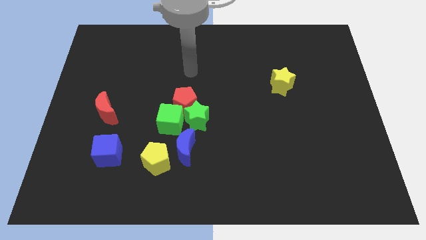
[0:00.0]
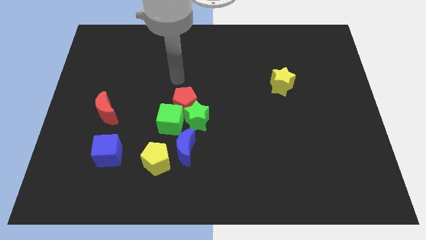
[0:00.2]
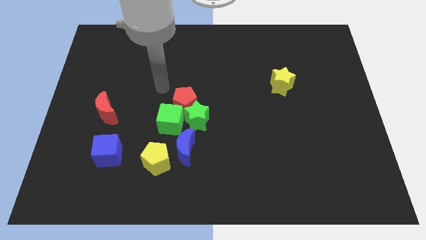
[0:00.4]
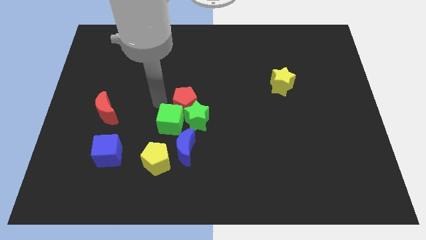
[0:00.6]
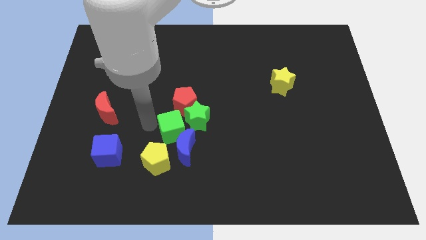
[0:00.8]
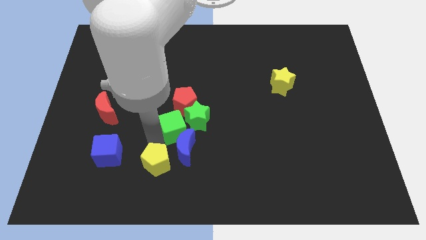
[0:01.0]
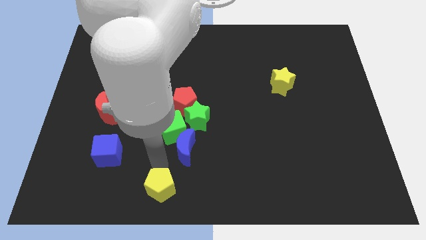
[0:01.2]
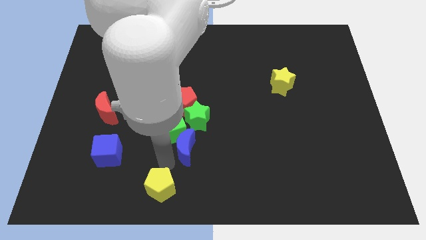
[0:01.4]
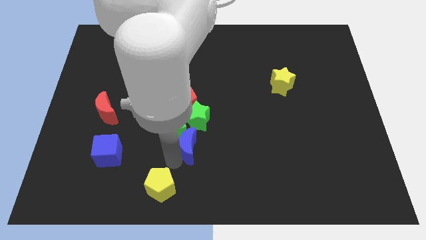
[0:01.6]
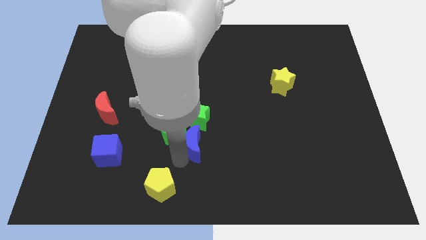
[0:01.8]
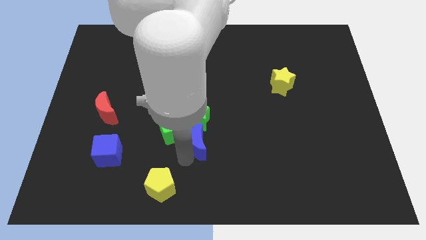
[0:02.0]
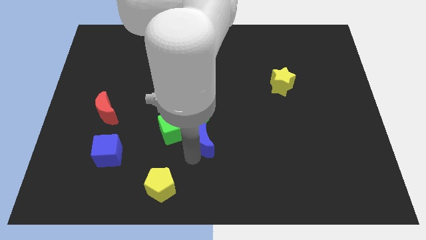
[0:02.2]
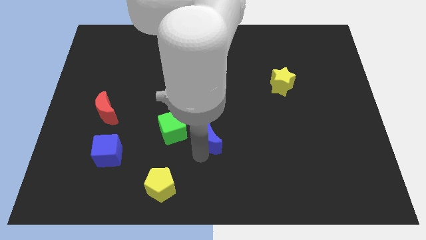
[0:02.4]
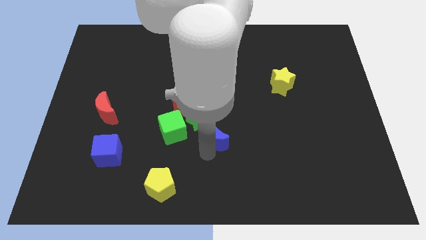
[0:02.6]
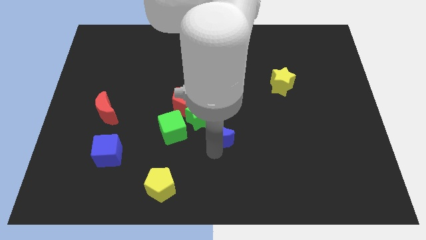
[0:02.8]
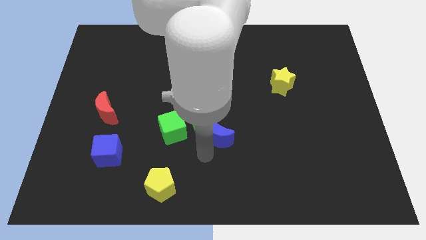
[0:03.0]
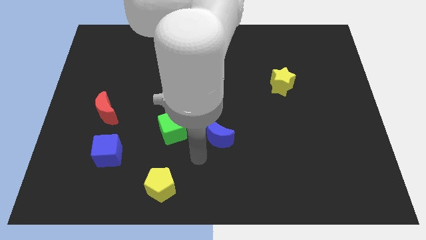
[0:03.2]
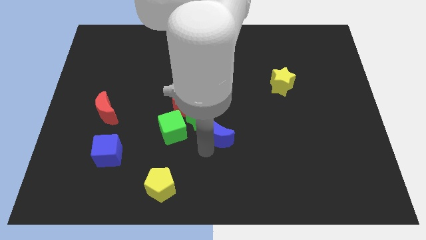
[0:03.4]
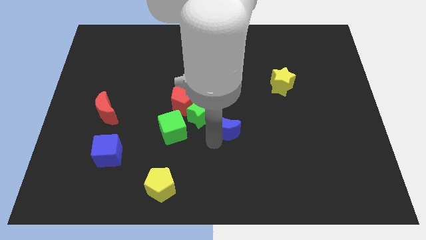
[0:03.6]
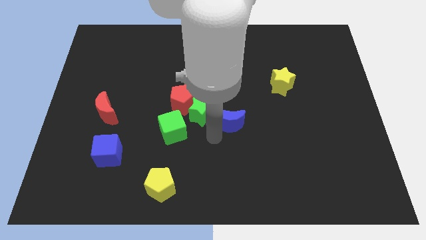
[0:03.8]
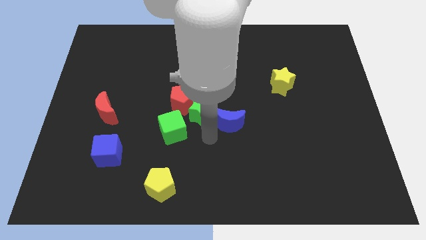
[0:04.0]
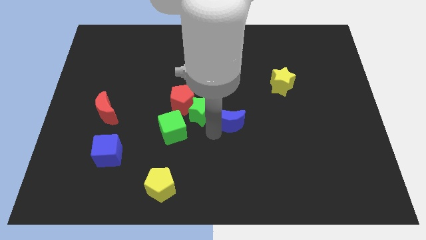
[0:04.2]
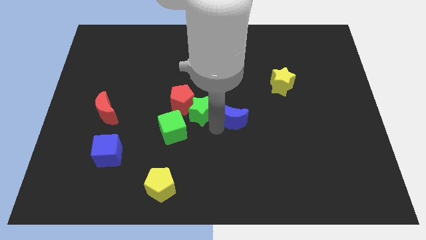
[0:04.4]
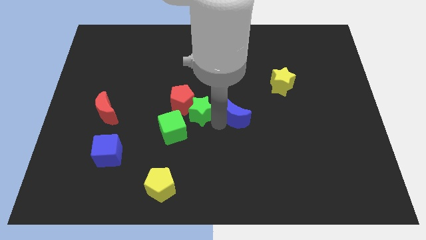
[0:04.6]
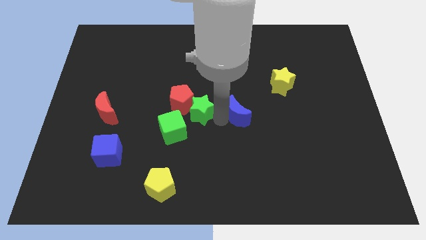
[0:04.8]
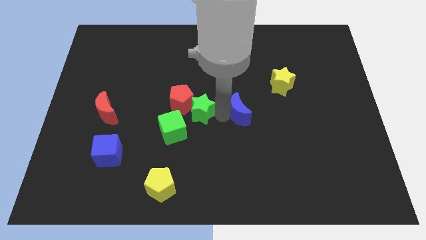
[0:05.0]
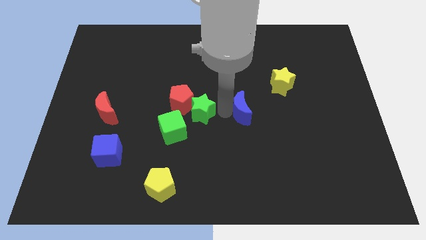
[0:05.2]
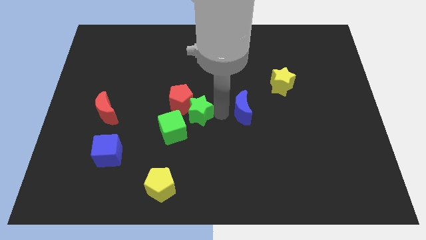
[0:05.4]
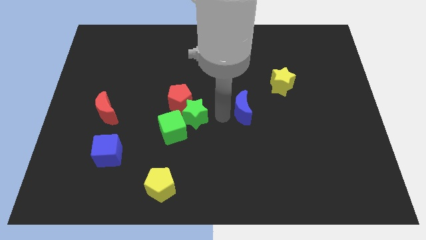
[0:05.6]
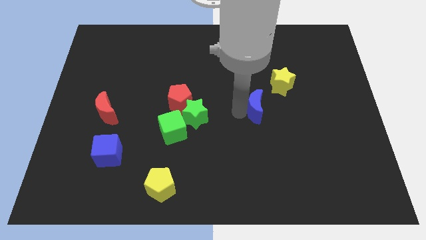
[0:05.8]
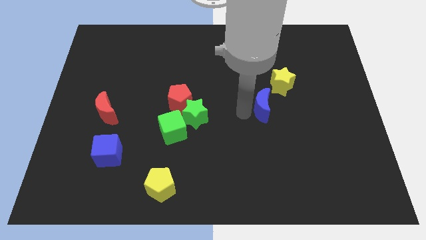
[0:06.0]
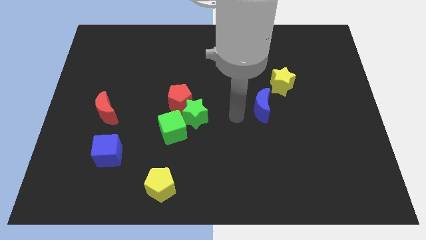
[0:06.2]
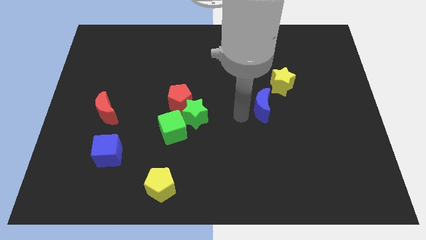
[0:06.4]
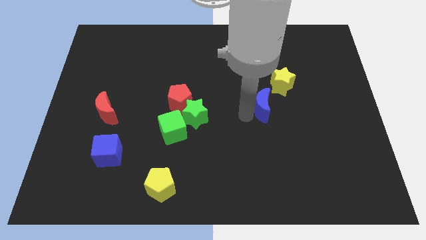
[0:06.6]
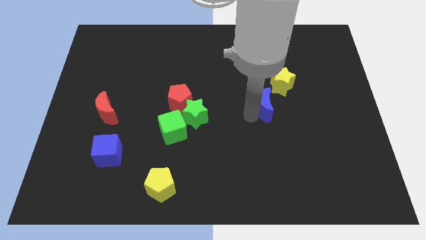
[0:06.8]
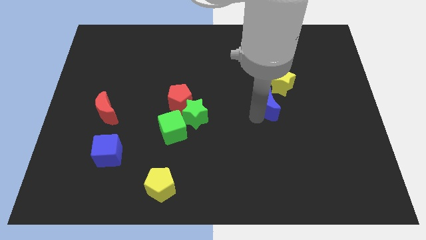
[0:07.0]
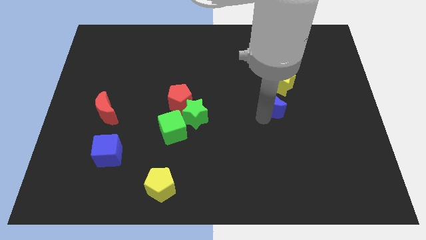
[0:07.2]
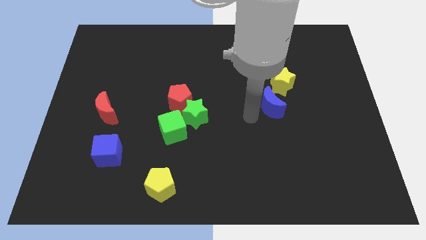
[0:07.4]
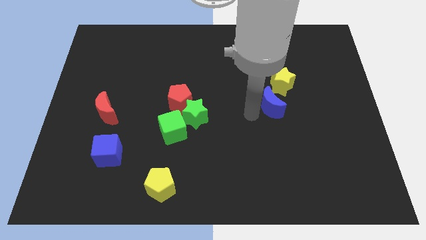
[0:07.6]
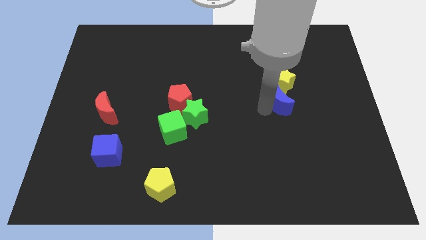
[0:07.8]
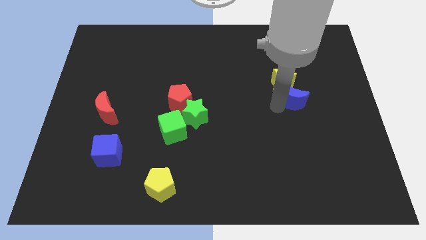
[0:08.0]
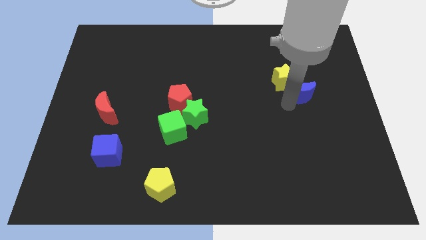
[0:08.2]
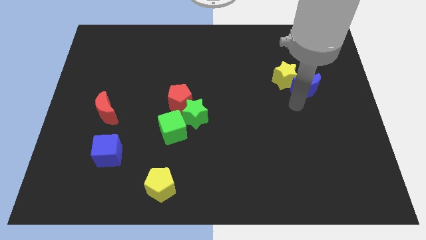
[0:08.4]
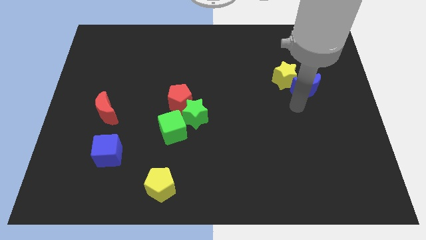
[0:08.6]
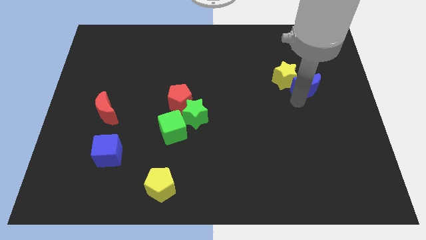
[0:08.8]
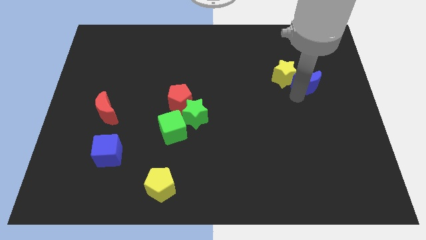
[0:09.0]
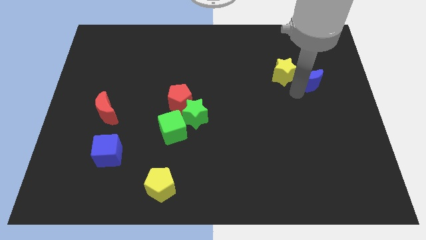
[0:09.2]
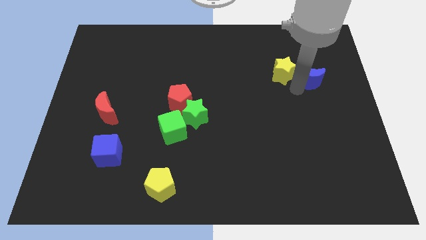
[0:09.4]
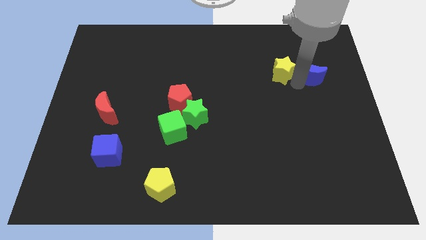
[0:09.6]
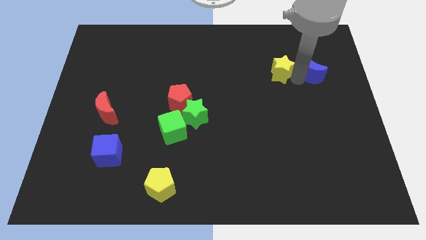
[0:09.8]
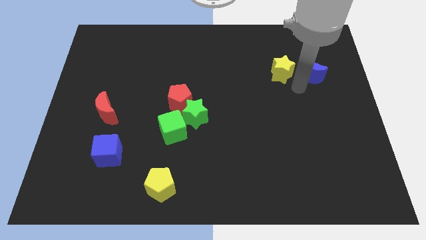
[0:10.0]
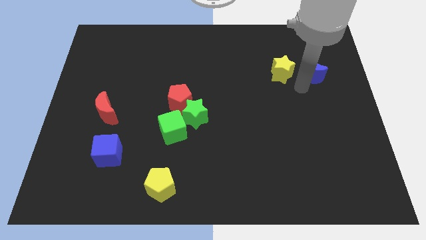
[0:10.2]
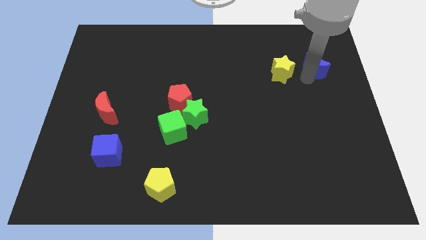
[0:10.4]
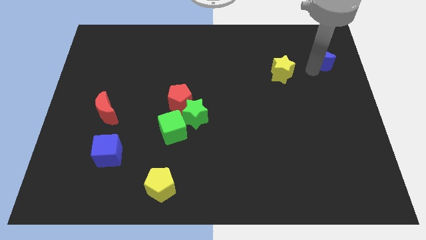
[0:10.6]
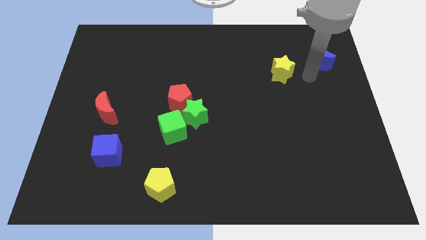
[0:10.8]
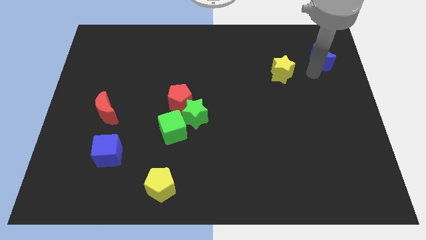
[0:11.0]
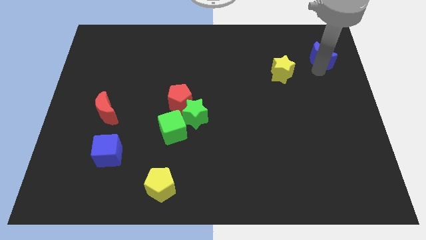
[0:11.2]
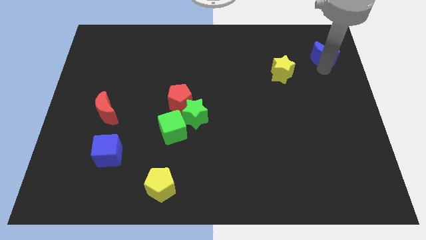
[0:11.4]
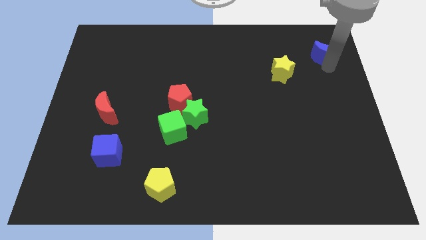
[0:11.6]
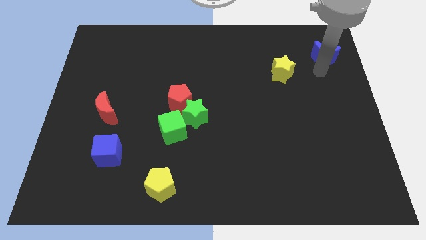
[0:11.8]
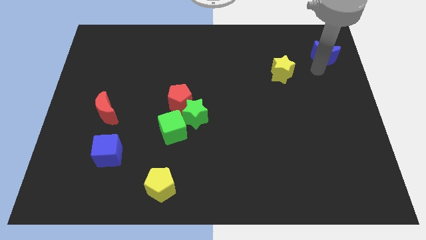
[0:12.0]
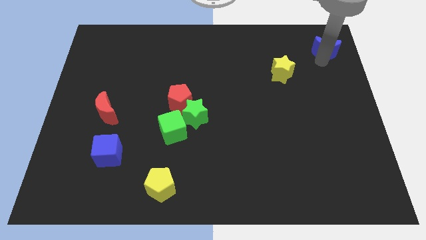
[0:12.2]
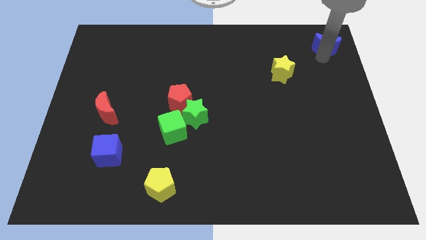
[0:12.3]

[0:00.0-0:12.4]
slide the blue moon to the top right

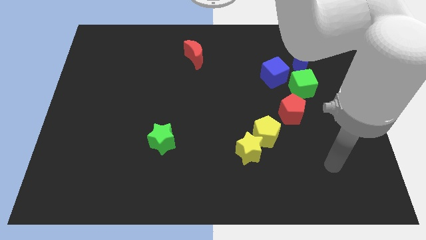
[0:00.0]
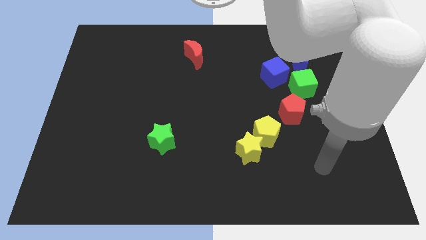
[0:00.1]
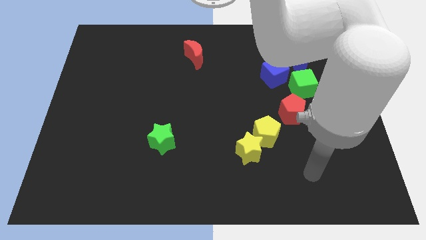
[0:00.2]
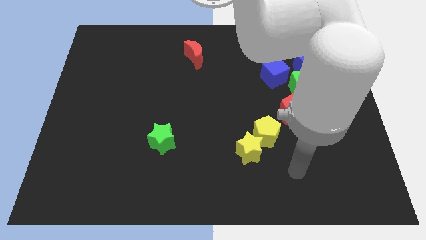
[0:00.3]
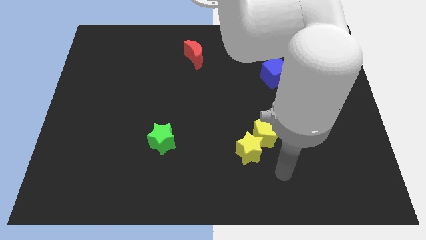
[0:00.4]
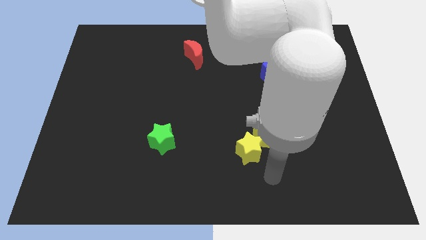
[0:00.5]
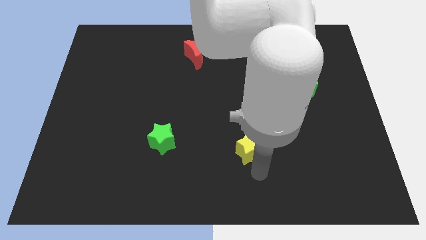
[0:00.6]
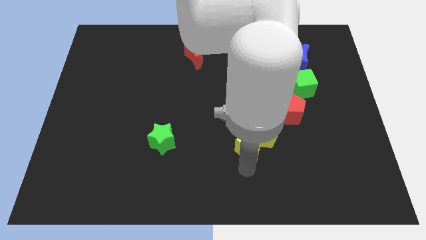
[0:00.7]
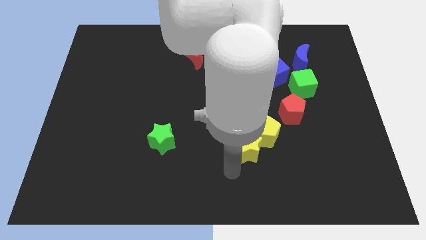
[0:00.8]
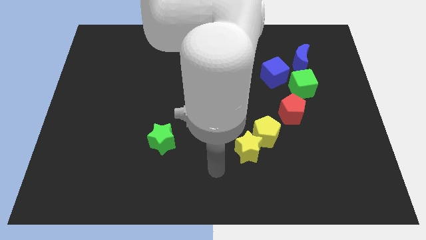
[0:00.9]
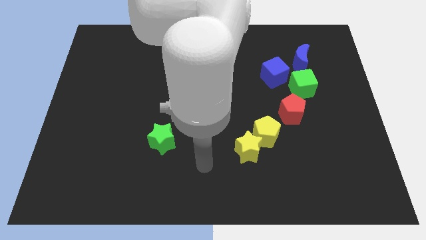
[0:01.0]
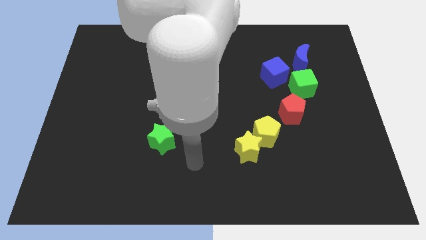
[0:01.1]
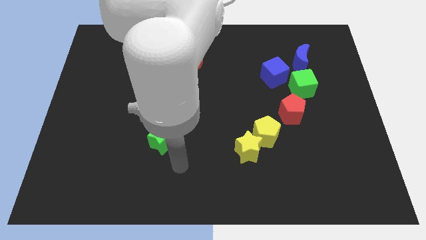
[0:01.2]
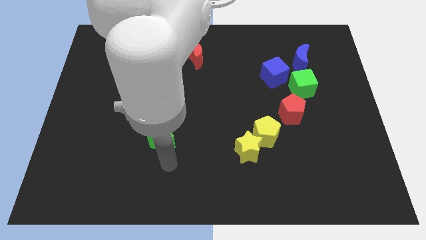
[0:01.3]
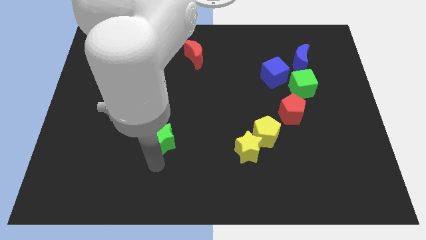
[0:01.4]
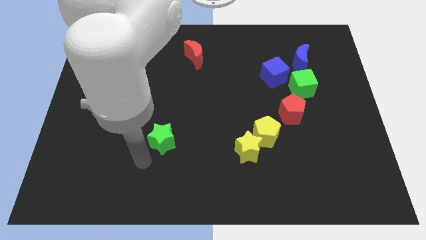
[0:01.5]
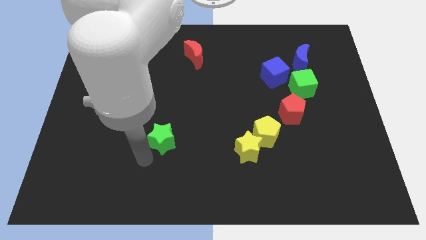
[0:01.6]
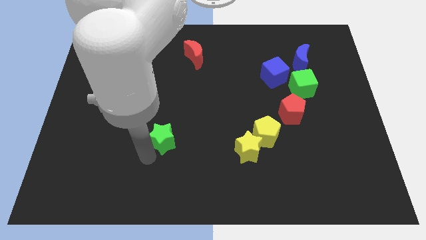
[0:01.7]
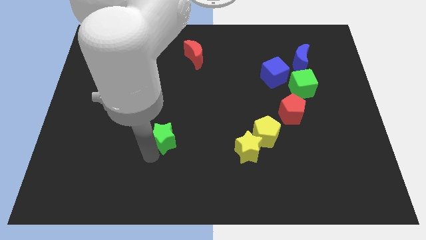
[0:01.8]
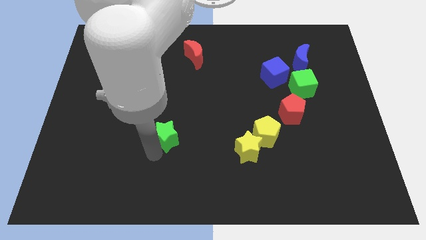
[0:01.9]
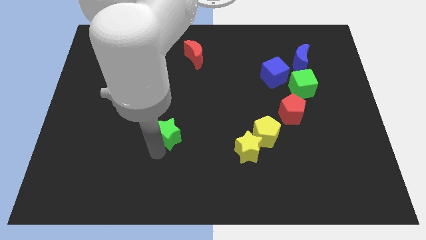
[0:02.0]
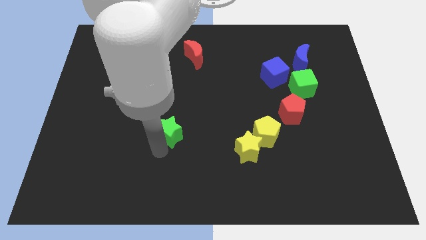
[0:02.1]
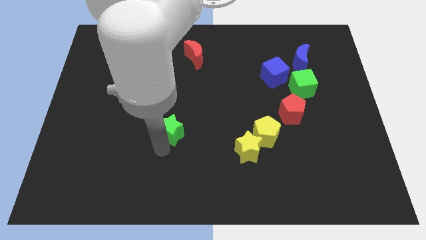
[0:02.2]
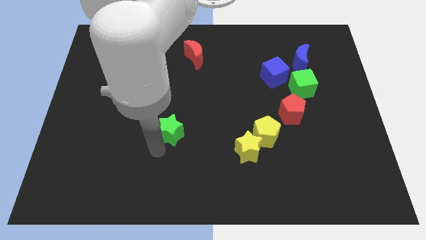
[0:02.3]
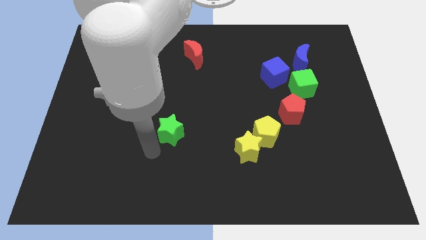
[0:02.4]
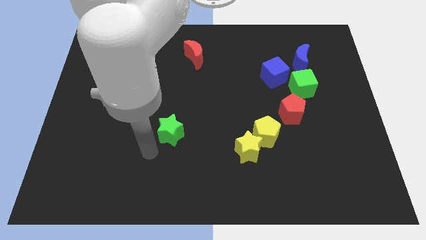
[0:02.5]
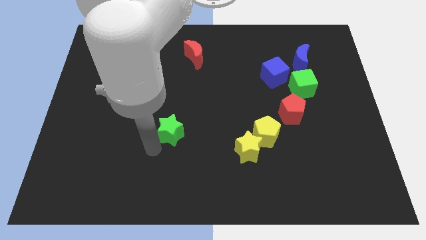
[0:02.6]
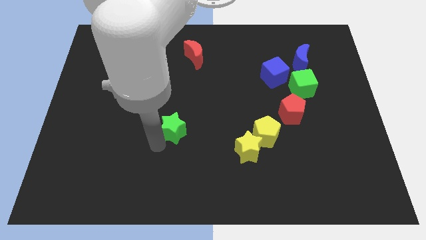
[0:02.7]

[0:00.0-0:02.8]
push the green star to the middle of the board
